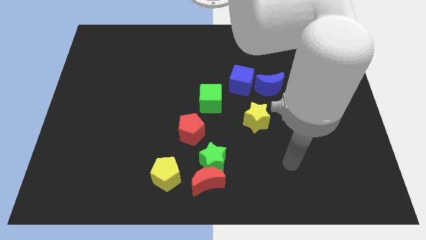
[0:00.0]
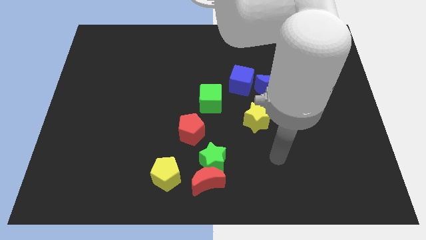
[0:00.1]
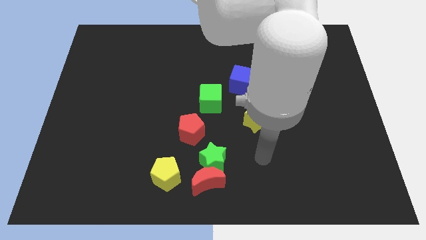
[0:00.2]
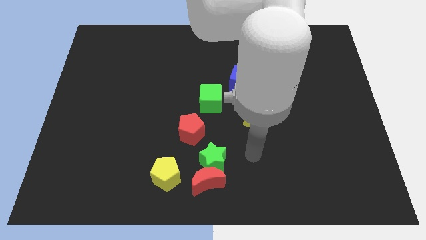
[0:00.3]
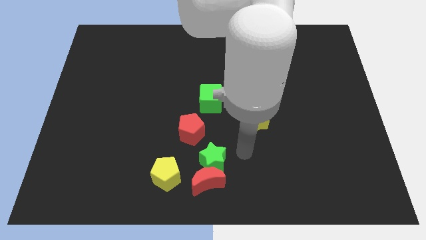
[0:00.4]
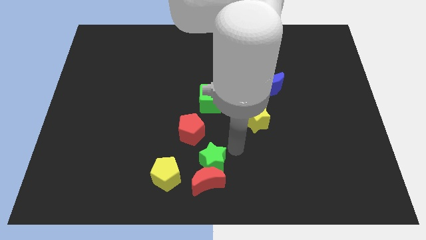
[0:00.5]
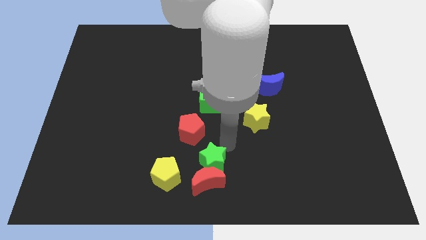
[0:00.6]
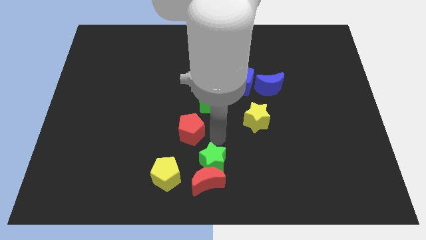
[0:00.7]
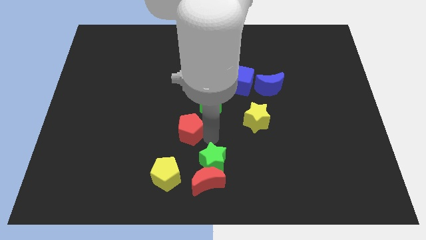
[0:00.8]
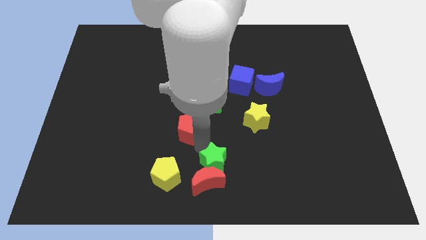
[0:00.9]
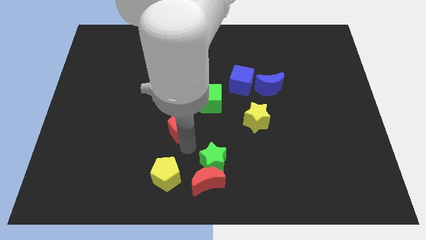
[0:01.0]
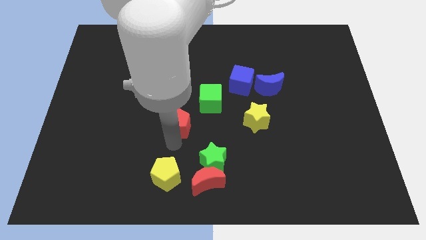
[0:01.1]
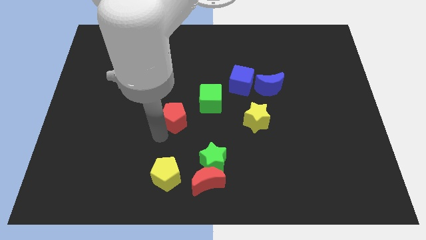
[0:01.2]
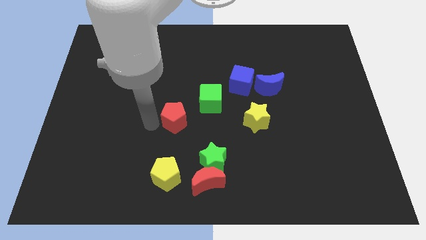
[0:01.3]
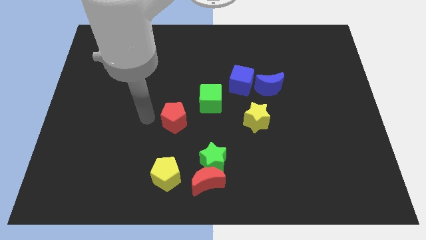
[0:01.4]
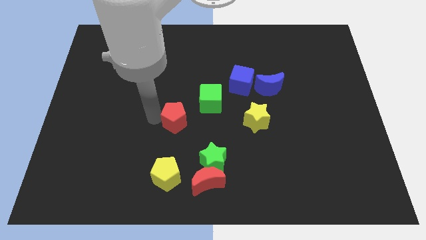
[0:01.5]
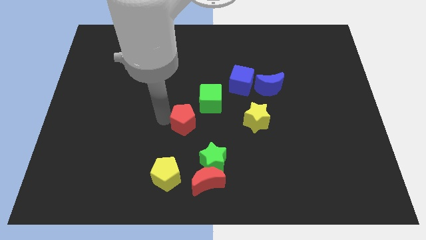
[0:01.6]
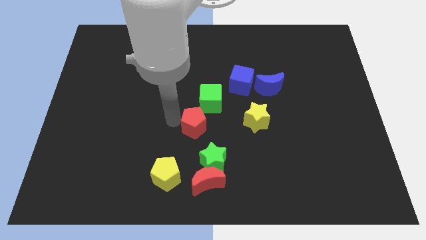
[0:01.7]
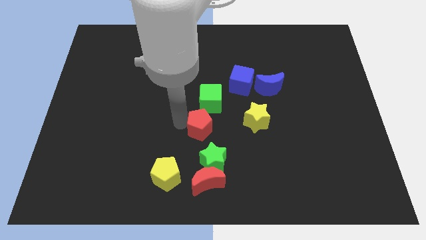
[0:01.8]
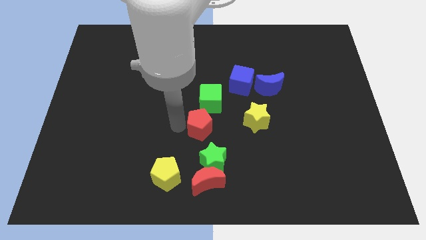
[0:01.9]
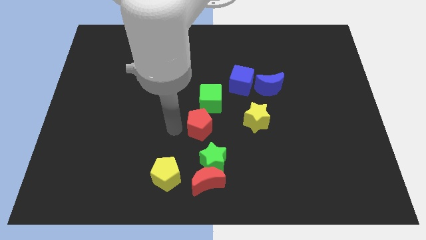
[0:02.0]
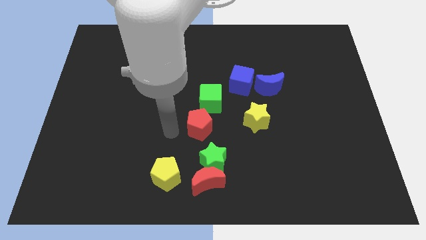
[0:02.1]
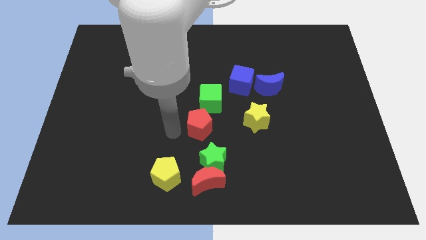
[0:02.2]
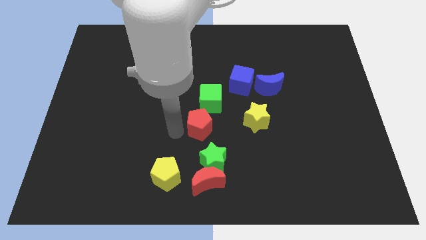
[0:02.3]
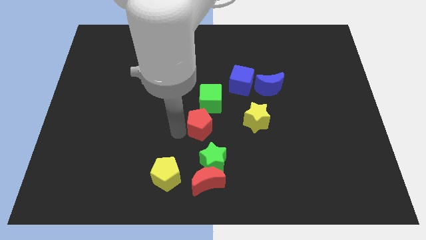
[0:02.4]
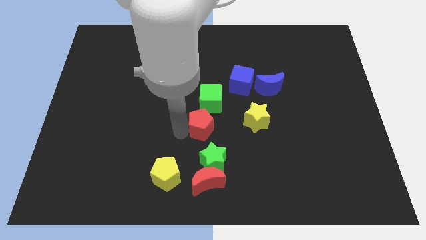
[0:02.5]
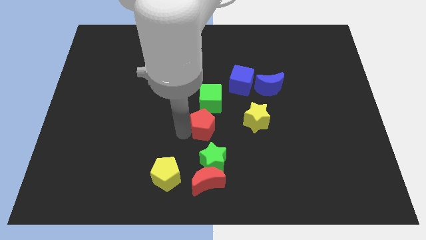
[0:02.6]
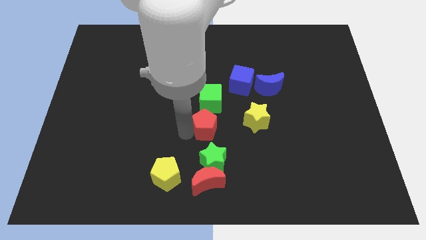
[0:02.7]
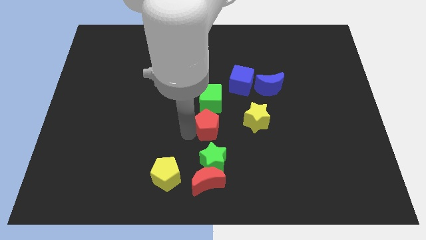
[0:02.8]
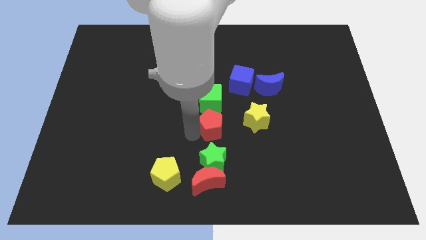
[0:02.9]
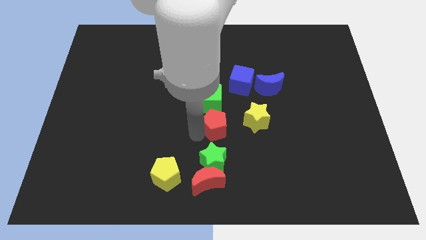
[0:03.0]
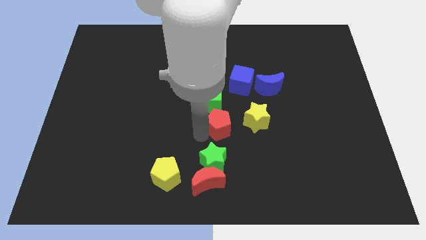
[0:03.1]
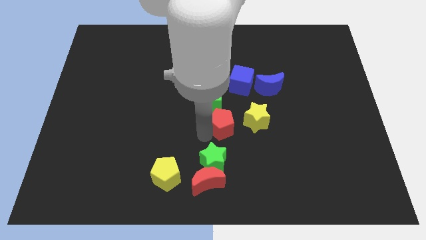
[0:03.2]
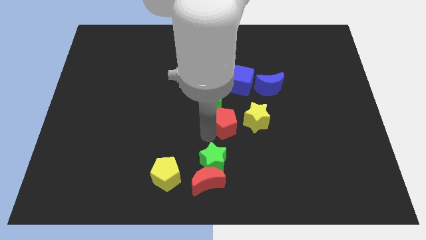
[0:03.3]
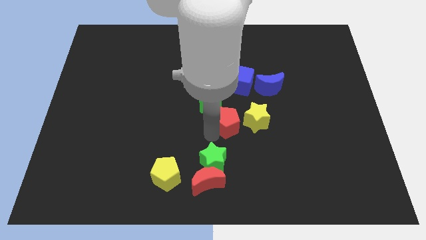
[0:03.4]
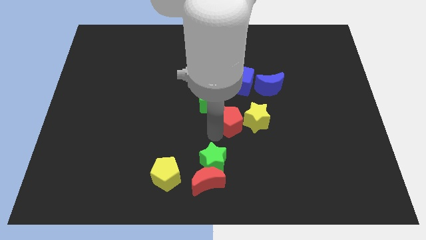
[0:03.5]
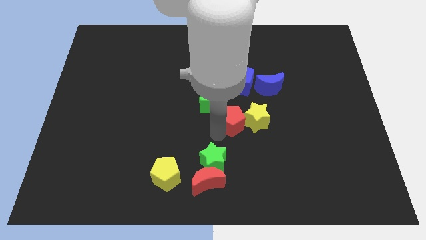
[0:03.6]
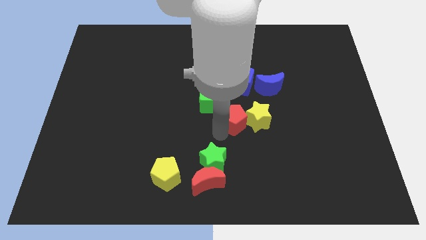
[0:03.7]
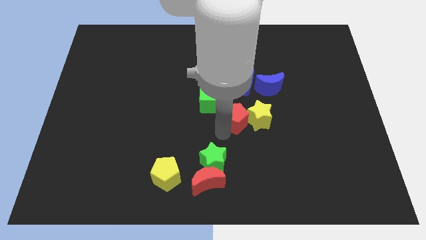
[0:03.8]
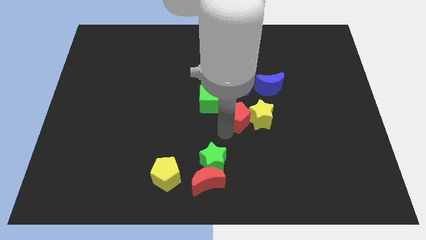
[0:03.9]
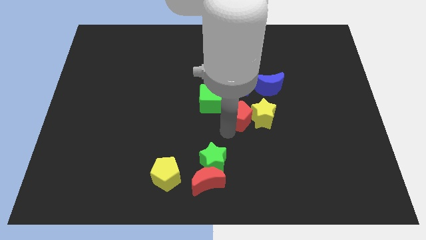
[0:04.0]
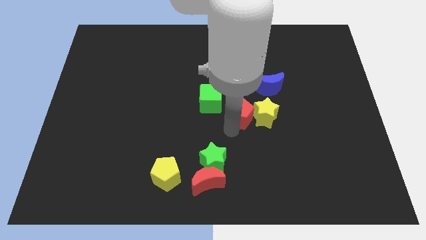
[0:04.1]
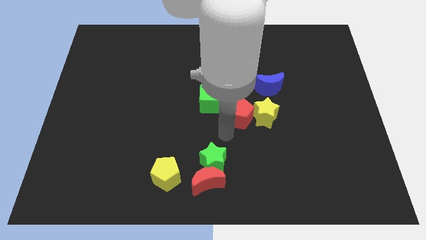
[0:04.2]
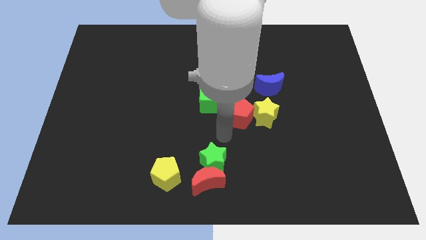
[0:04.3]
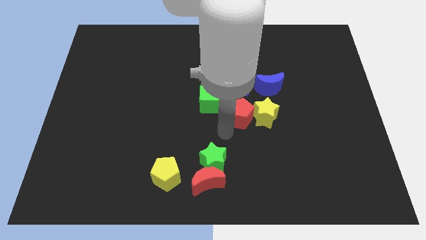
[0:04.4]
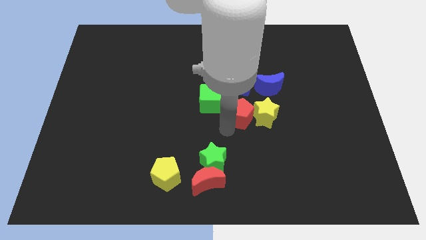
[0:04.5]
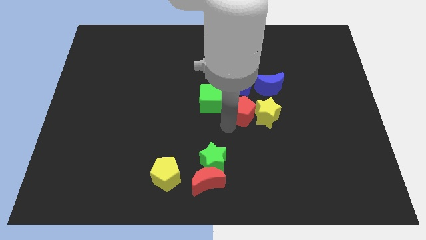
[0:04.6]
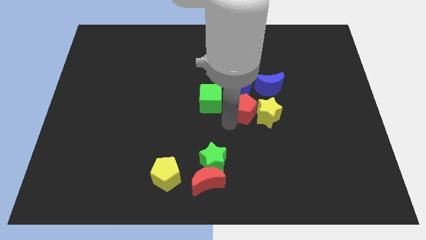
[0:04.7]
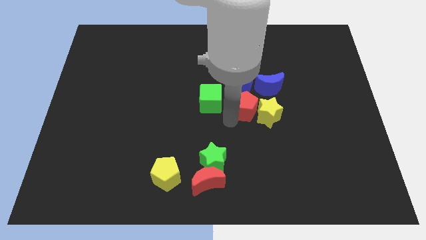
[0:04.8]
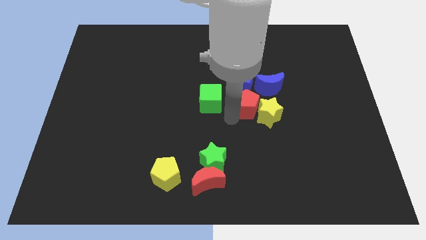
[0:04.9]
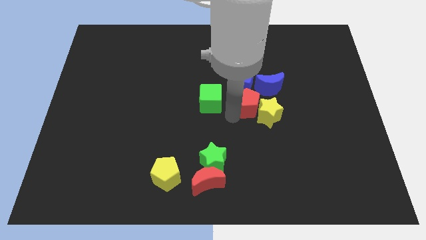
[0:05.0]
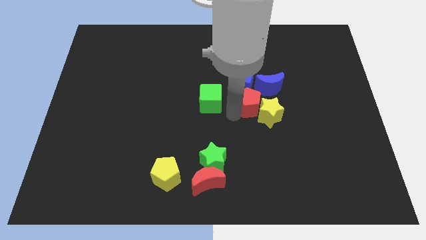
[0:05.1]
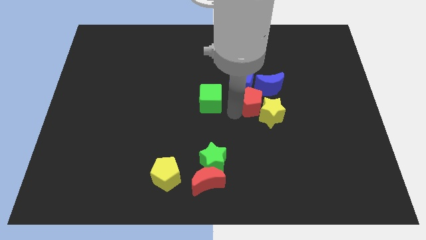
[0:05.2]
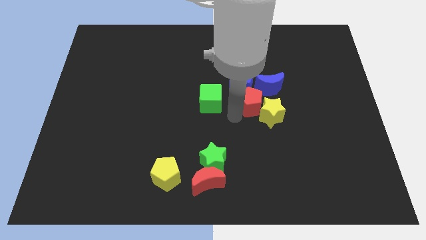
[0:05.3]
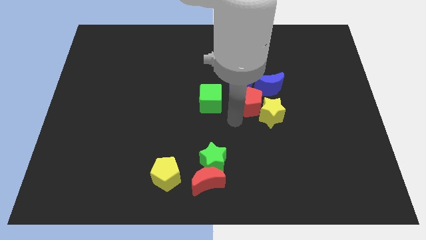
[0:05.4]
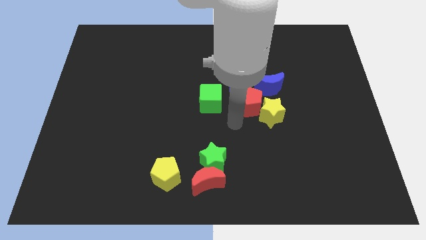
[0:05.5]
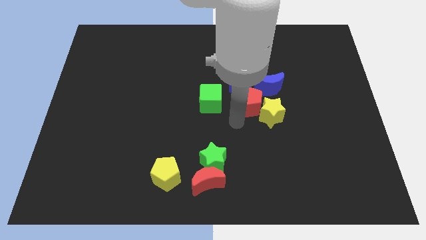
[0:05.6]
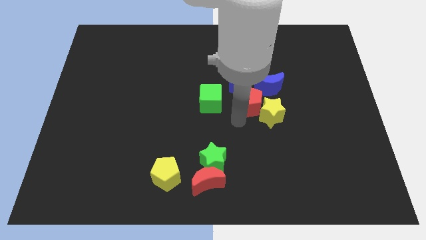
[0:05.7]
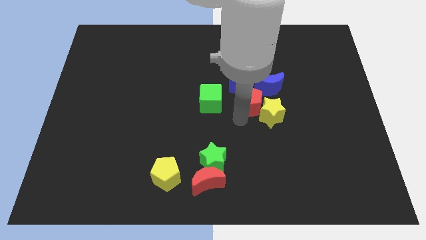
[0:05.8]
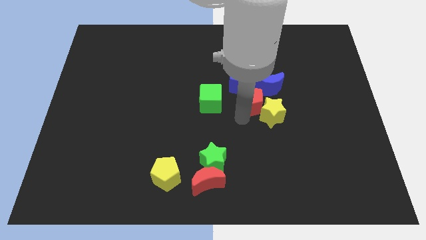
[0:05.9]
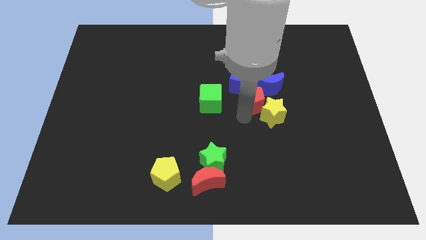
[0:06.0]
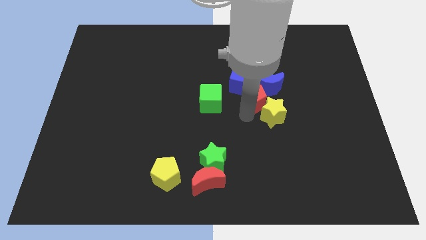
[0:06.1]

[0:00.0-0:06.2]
slide the red pentagon to the blue moon

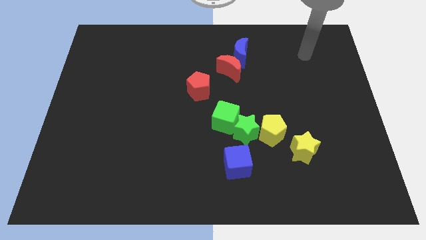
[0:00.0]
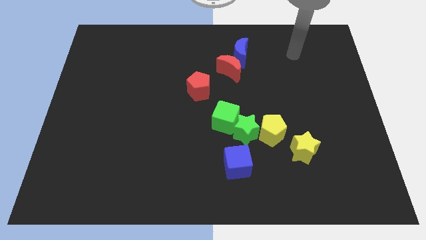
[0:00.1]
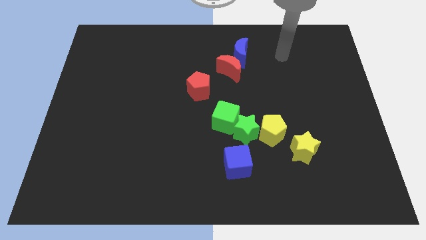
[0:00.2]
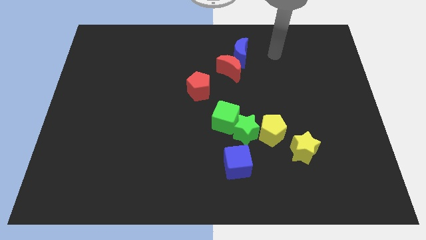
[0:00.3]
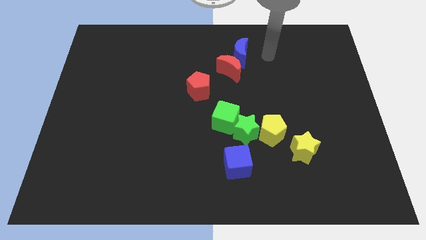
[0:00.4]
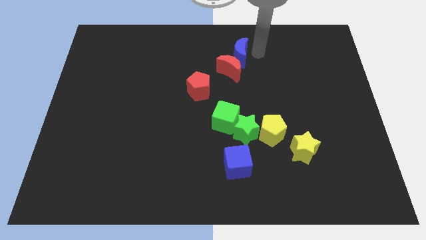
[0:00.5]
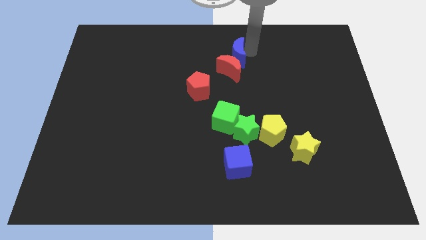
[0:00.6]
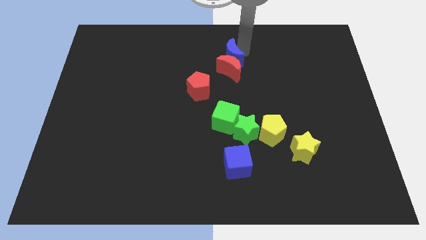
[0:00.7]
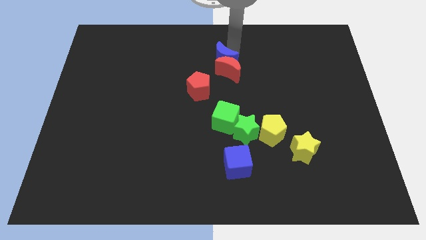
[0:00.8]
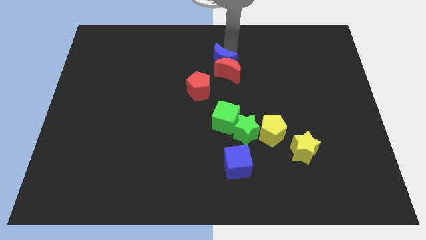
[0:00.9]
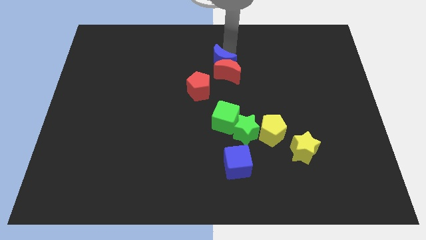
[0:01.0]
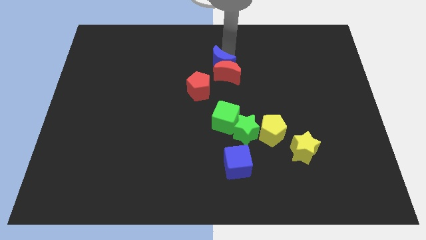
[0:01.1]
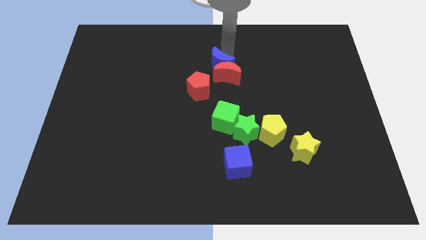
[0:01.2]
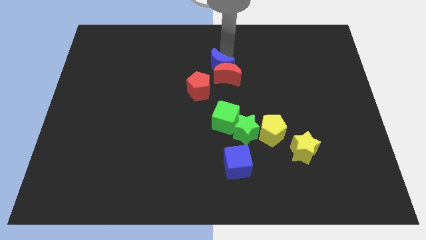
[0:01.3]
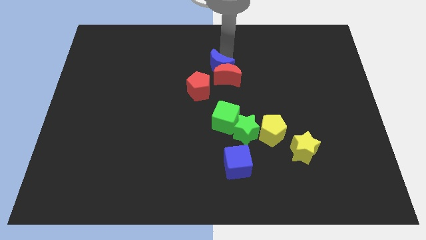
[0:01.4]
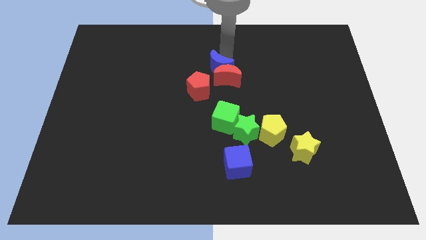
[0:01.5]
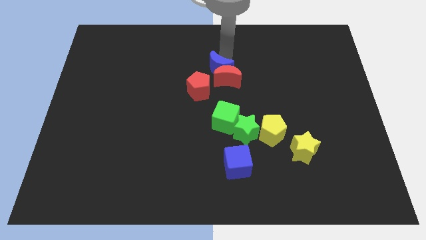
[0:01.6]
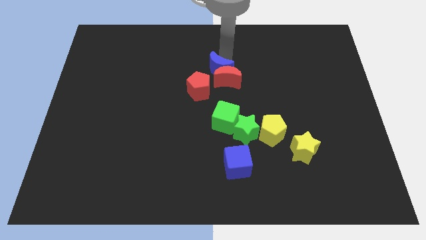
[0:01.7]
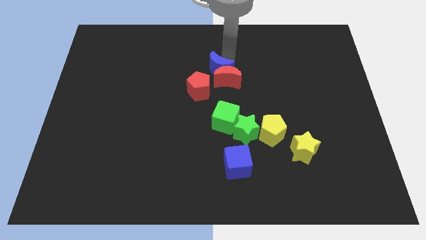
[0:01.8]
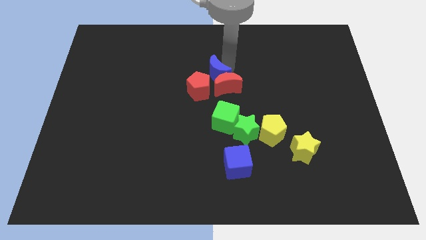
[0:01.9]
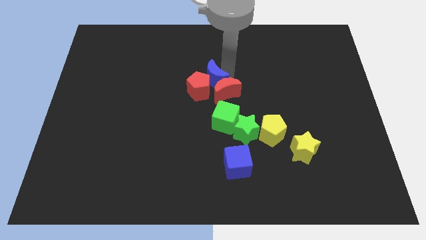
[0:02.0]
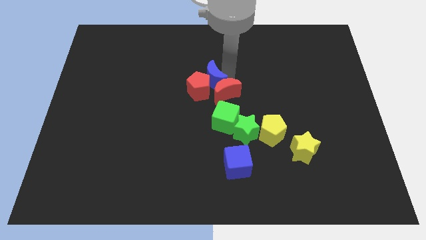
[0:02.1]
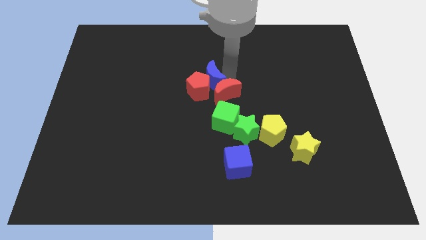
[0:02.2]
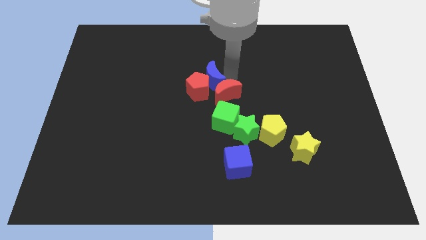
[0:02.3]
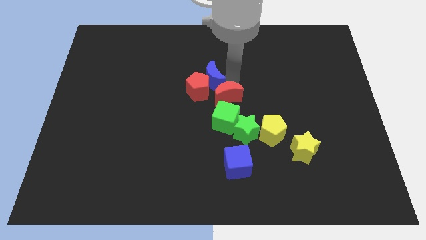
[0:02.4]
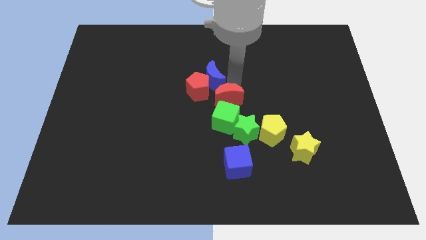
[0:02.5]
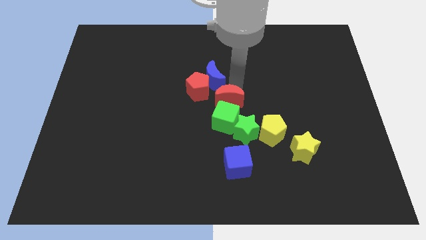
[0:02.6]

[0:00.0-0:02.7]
push the red moon next to the green cube
